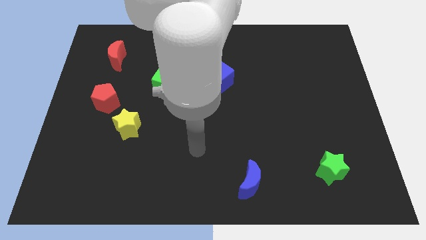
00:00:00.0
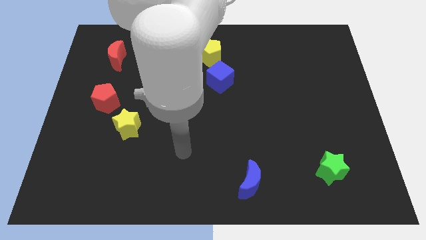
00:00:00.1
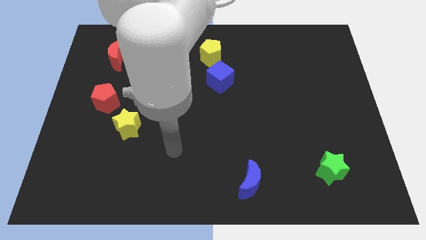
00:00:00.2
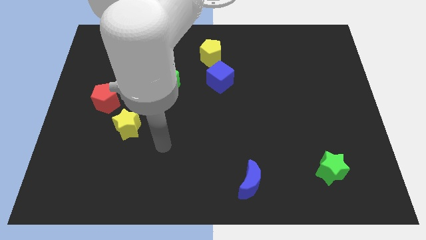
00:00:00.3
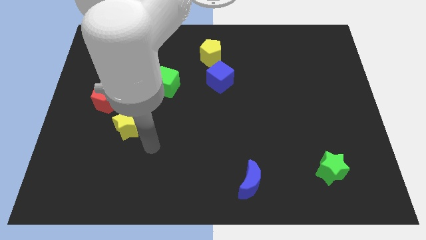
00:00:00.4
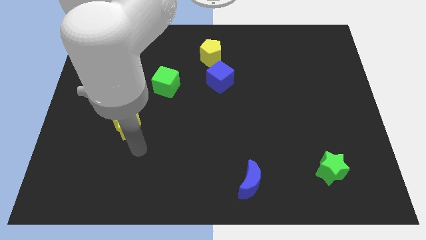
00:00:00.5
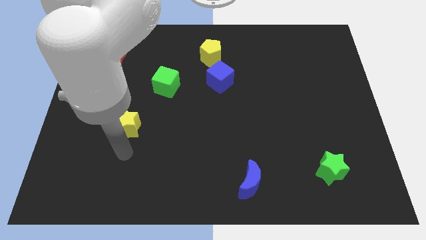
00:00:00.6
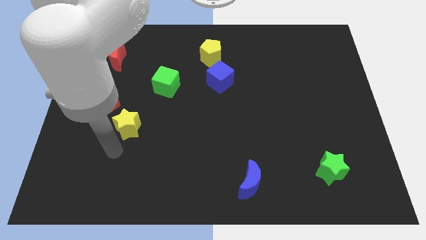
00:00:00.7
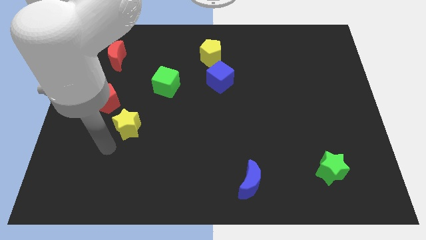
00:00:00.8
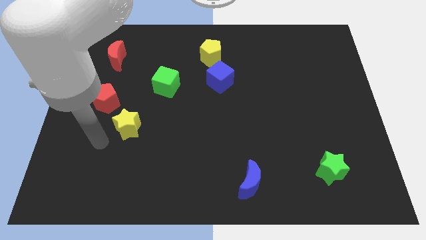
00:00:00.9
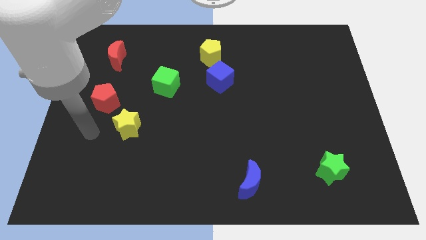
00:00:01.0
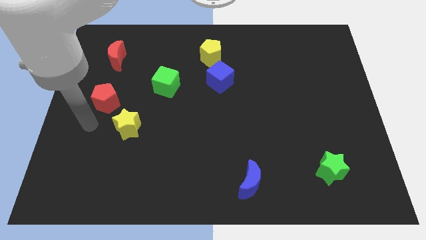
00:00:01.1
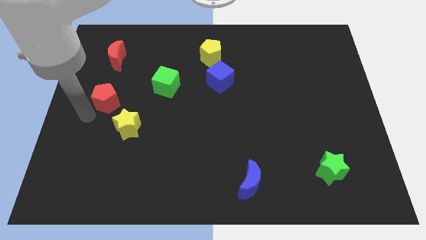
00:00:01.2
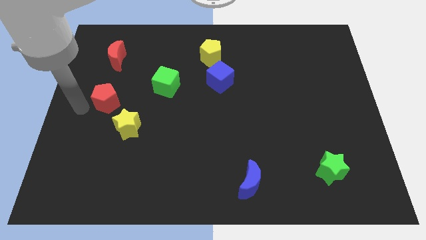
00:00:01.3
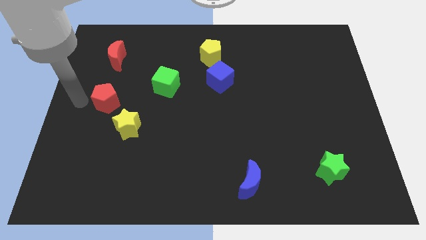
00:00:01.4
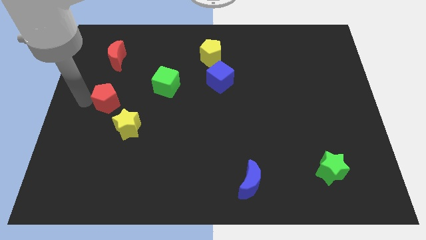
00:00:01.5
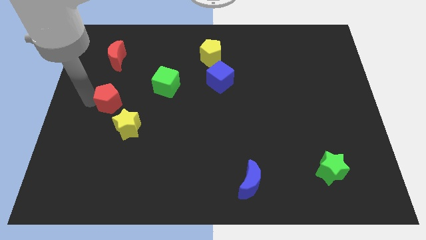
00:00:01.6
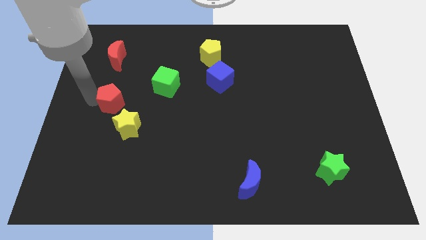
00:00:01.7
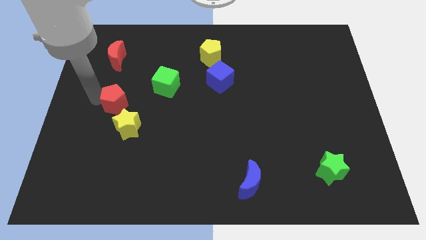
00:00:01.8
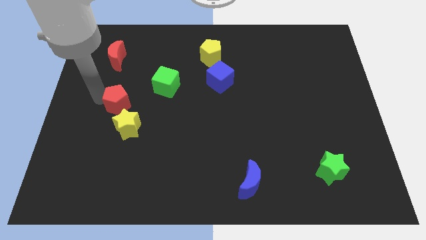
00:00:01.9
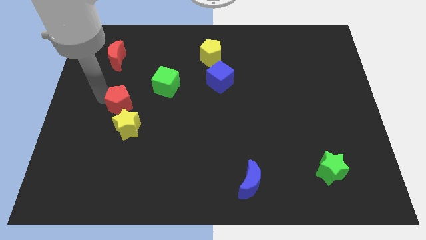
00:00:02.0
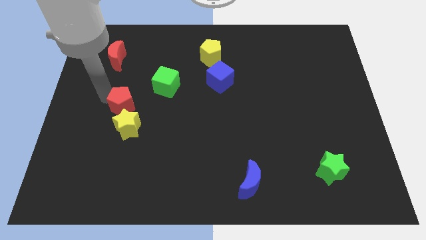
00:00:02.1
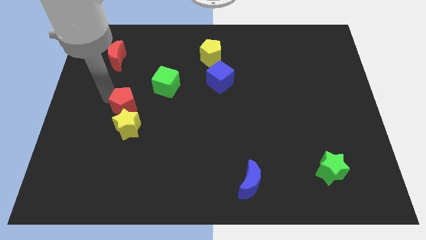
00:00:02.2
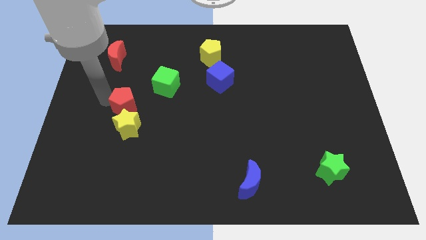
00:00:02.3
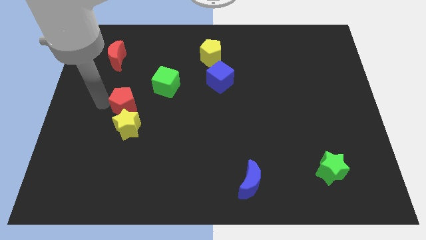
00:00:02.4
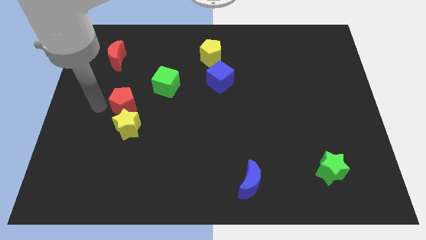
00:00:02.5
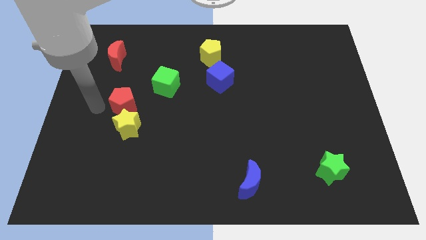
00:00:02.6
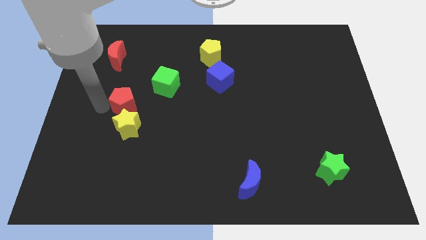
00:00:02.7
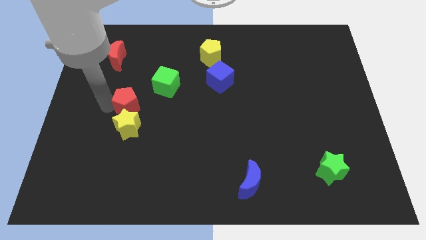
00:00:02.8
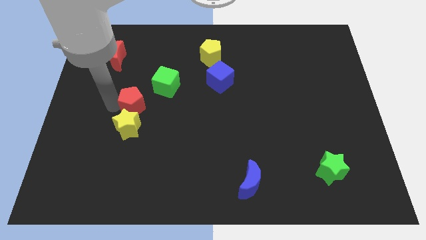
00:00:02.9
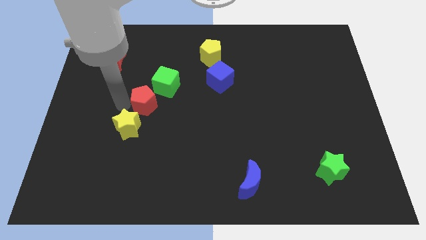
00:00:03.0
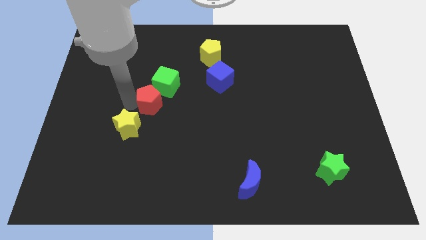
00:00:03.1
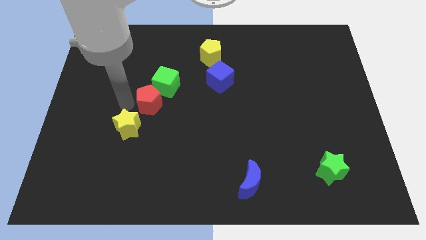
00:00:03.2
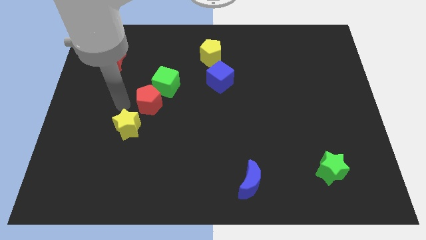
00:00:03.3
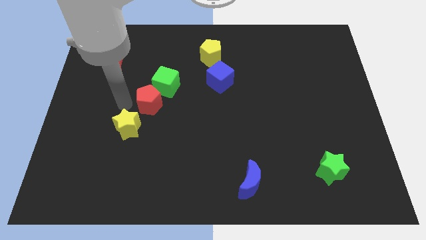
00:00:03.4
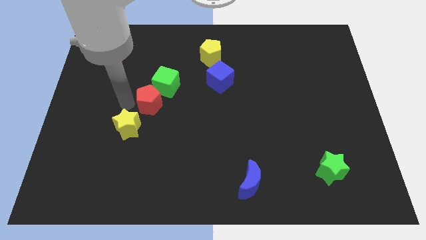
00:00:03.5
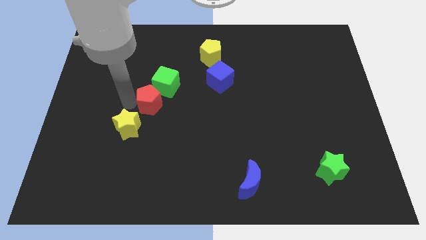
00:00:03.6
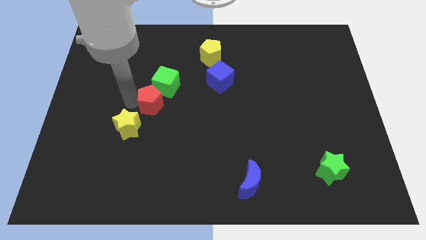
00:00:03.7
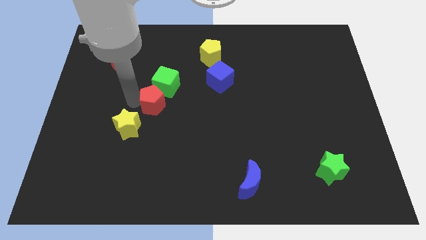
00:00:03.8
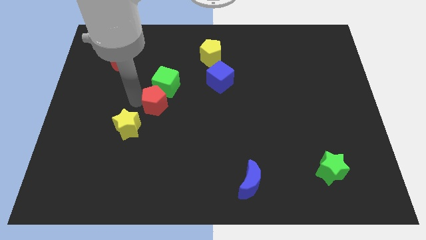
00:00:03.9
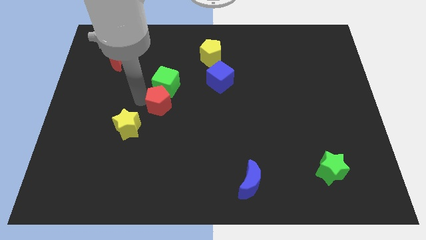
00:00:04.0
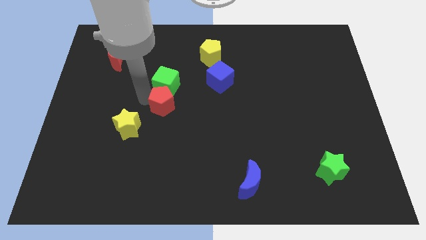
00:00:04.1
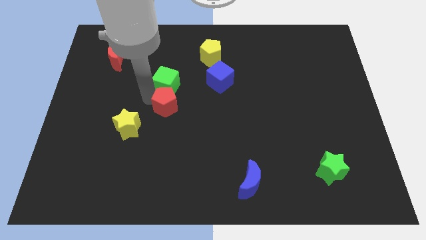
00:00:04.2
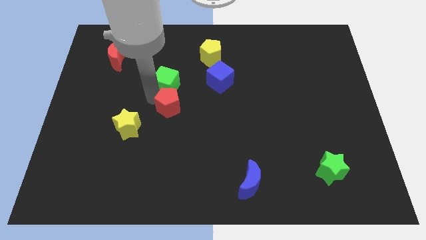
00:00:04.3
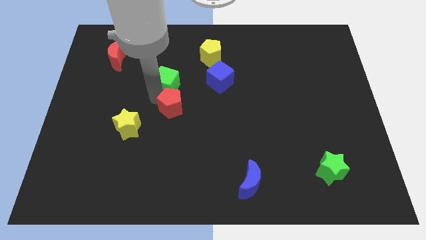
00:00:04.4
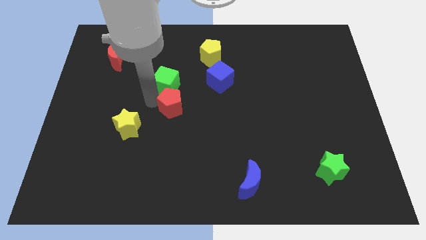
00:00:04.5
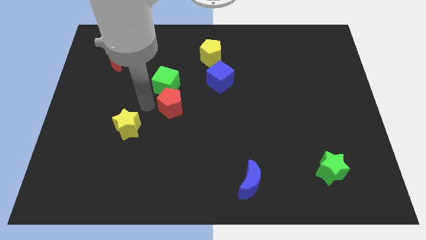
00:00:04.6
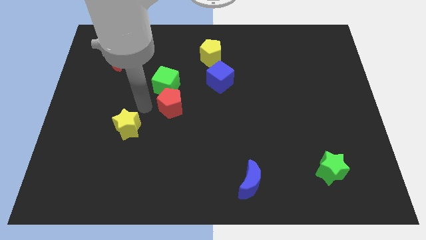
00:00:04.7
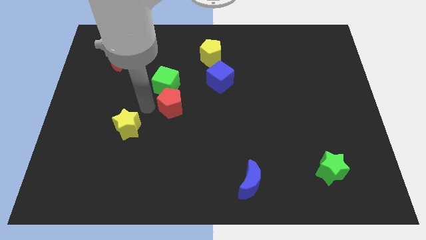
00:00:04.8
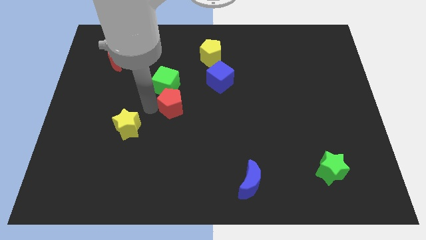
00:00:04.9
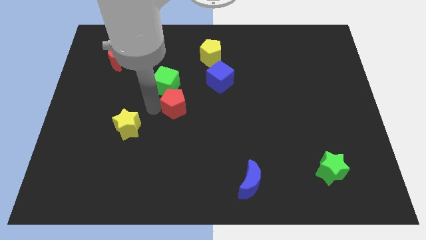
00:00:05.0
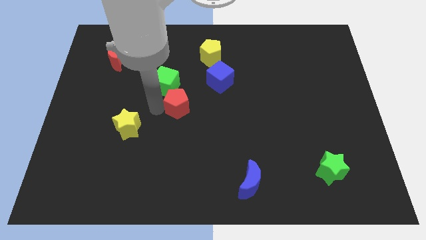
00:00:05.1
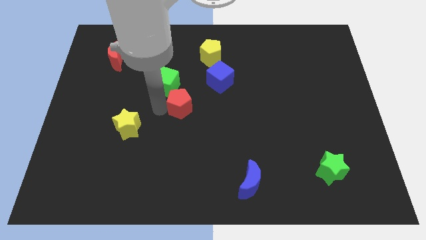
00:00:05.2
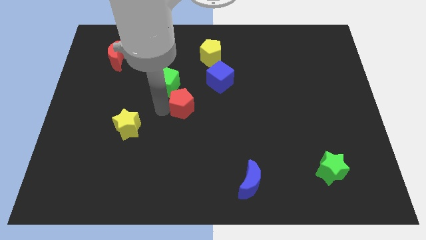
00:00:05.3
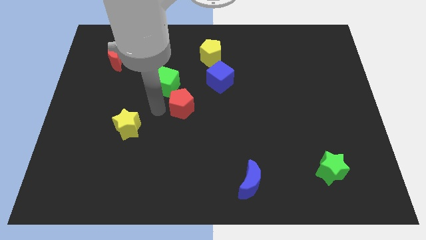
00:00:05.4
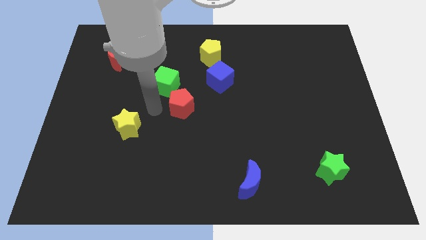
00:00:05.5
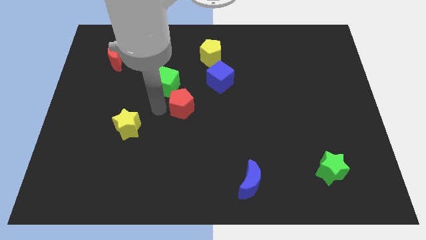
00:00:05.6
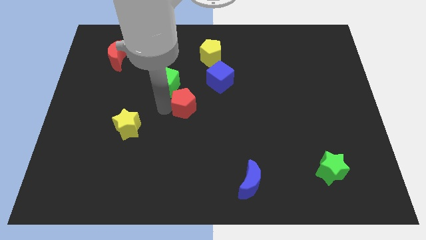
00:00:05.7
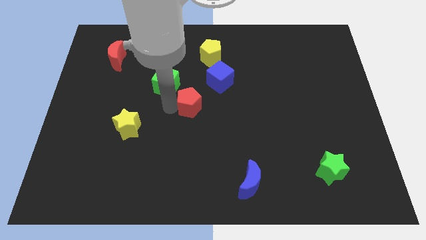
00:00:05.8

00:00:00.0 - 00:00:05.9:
push the red pentagon right

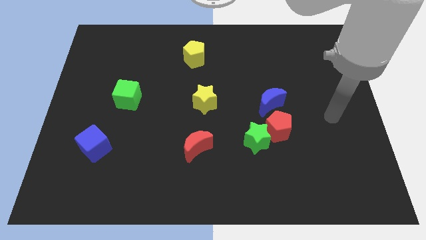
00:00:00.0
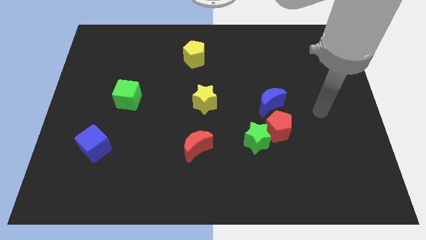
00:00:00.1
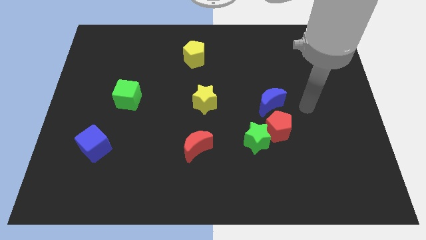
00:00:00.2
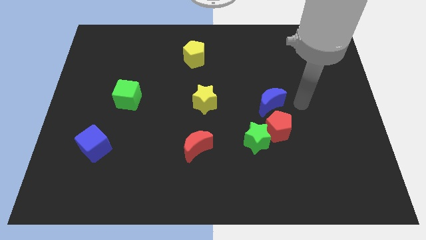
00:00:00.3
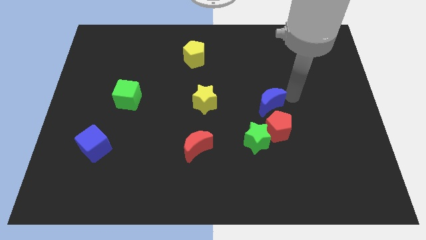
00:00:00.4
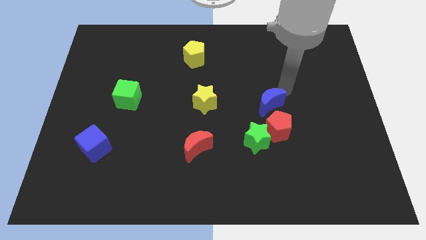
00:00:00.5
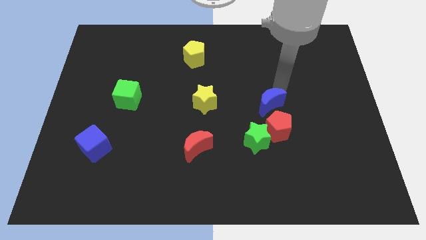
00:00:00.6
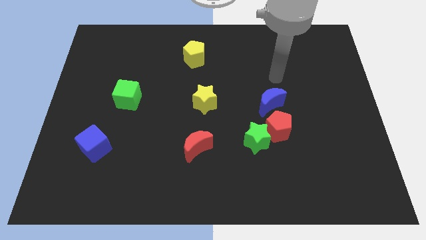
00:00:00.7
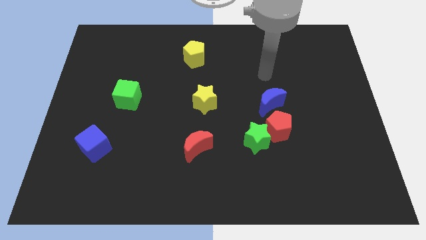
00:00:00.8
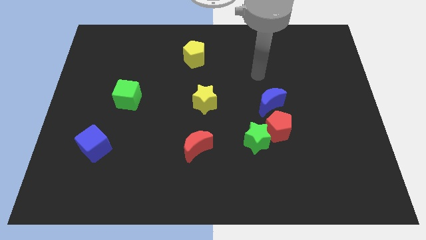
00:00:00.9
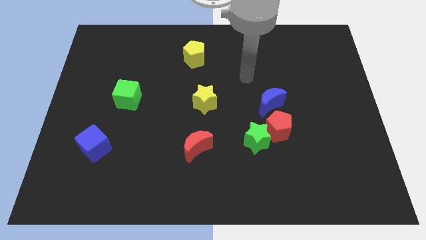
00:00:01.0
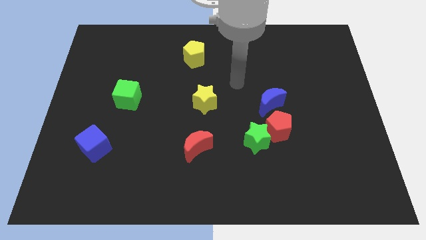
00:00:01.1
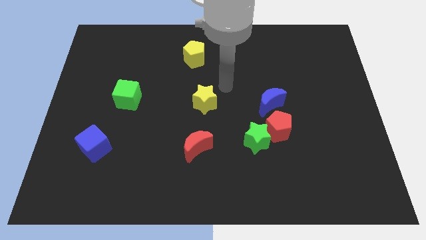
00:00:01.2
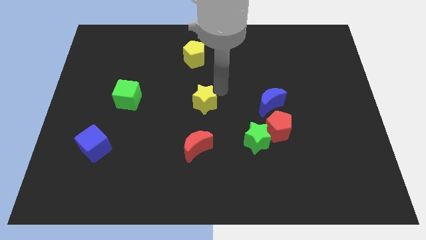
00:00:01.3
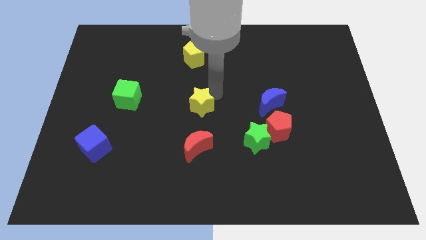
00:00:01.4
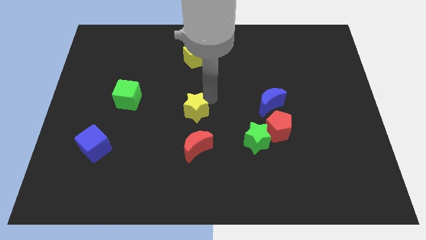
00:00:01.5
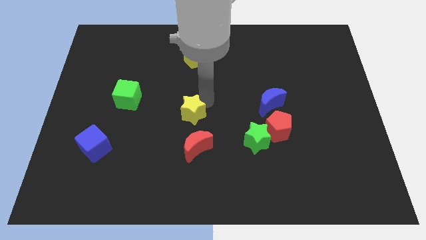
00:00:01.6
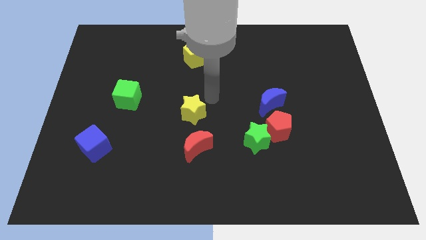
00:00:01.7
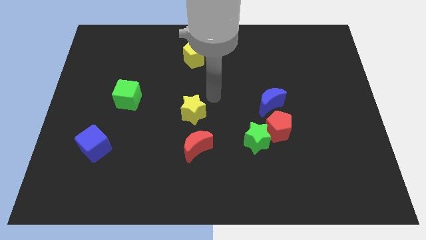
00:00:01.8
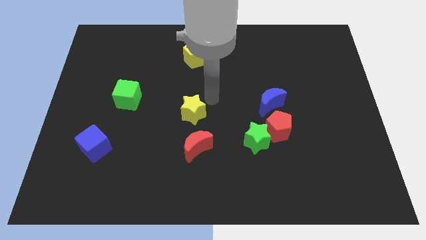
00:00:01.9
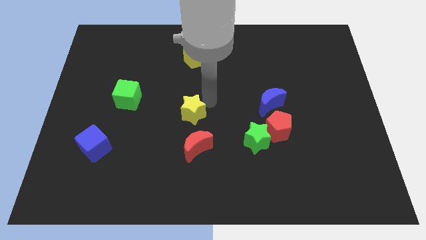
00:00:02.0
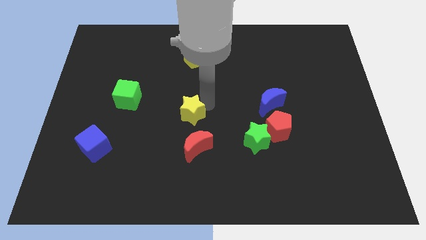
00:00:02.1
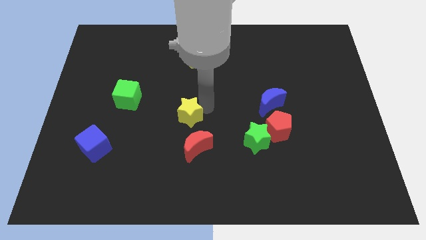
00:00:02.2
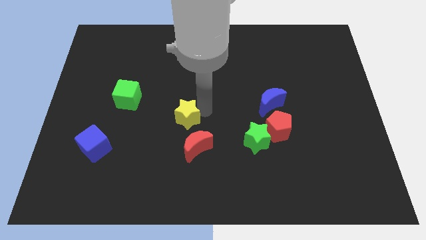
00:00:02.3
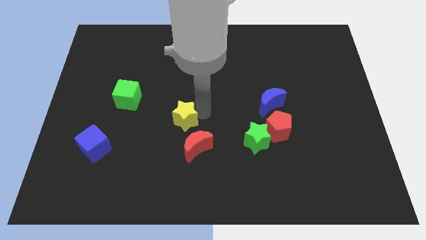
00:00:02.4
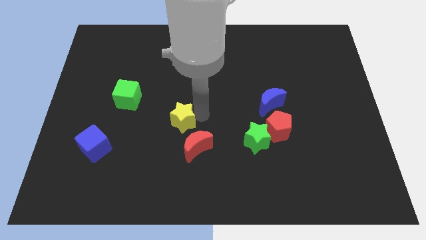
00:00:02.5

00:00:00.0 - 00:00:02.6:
slide the yellow star diagonally down and to the left slightly
